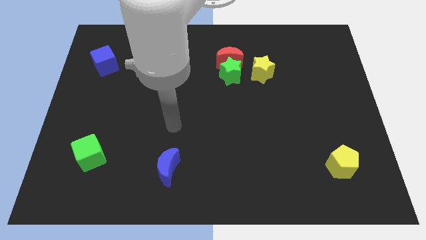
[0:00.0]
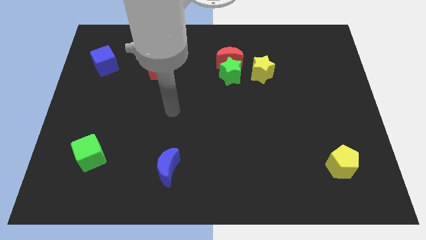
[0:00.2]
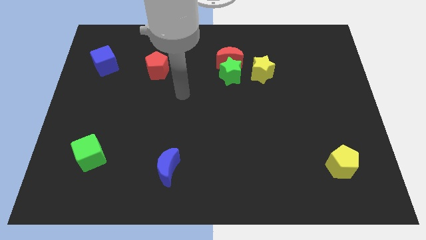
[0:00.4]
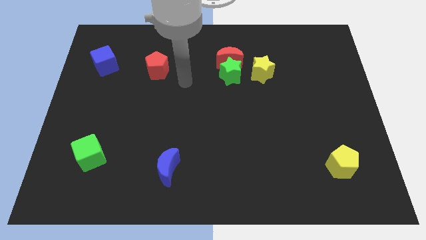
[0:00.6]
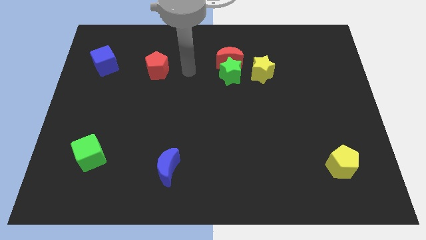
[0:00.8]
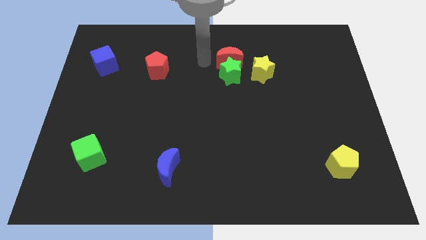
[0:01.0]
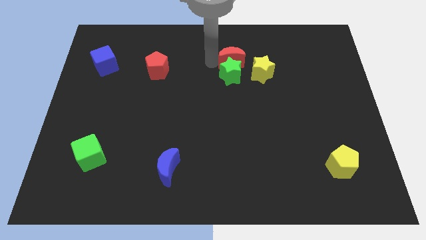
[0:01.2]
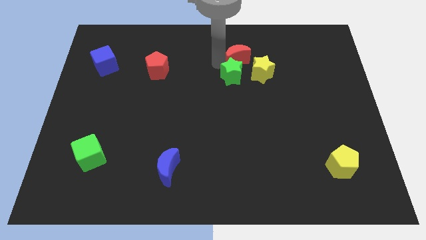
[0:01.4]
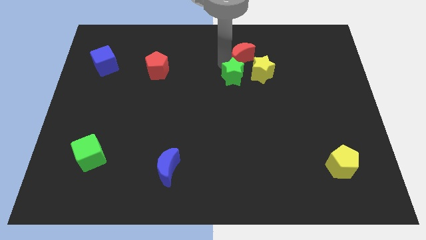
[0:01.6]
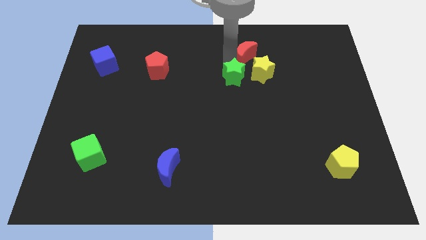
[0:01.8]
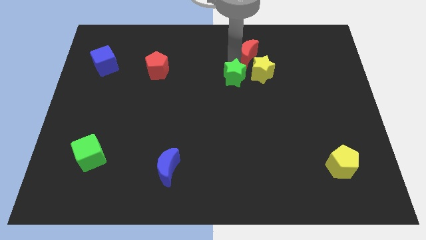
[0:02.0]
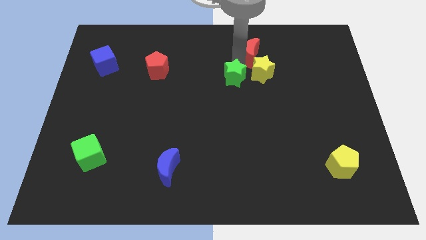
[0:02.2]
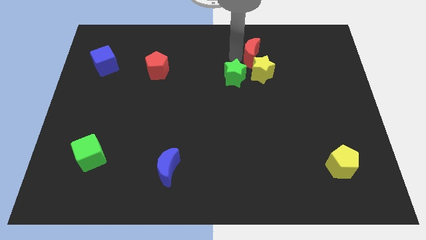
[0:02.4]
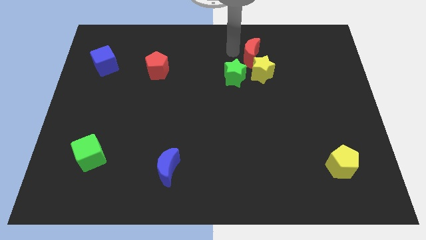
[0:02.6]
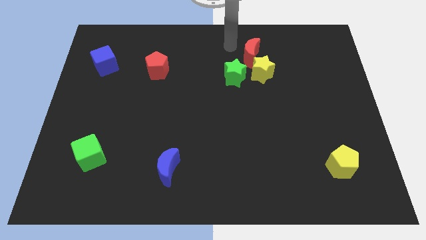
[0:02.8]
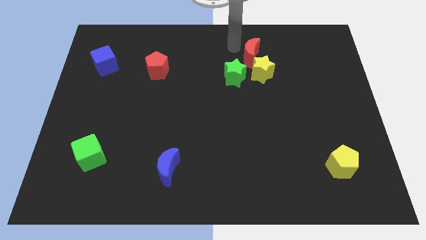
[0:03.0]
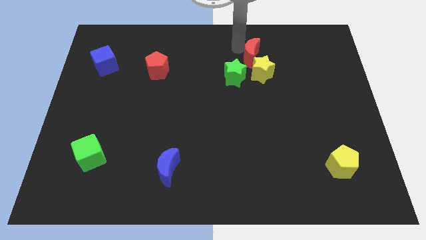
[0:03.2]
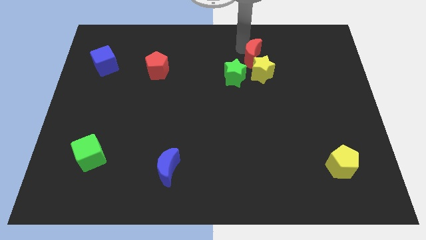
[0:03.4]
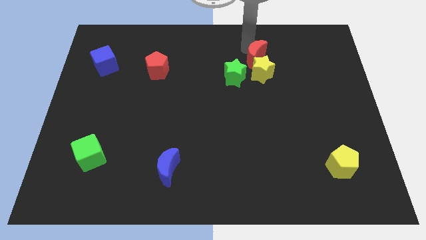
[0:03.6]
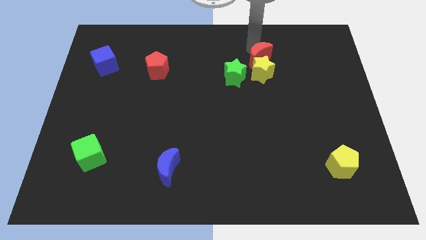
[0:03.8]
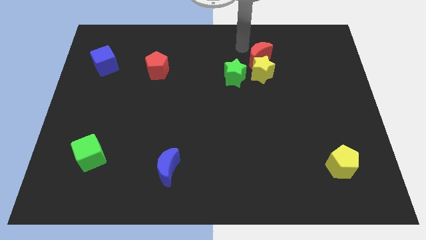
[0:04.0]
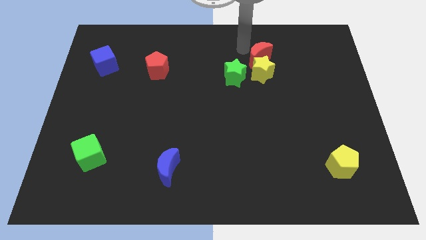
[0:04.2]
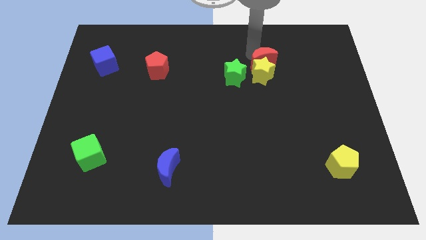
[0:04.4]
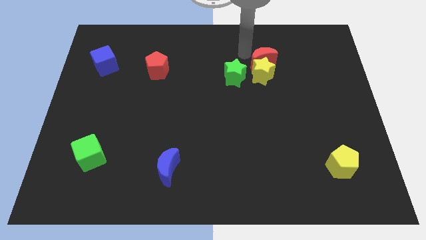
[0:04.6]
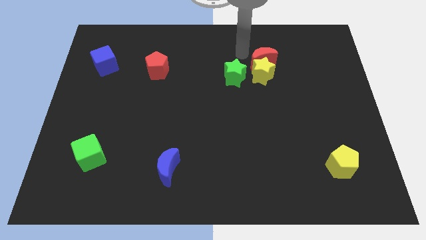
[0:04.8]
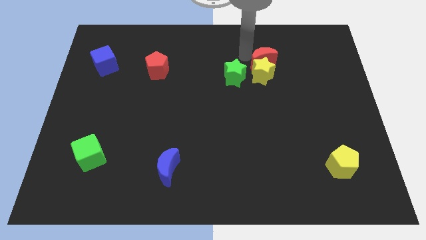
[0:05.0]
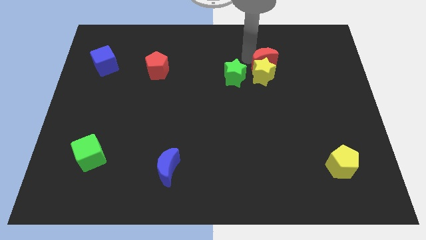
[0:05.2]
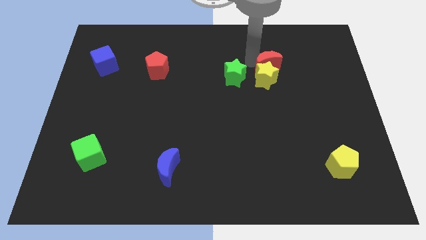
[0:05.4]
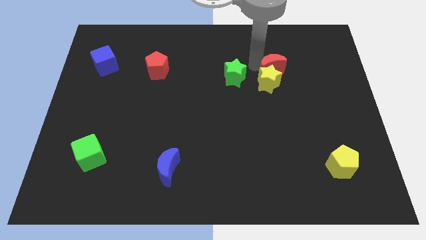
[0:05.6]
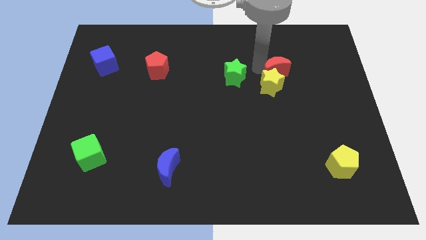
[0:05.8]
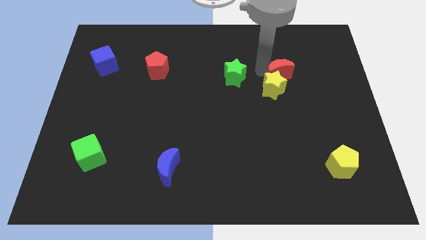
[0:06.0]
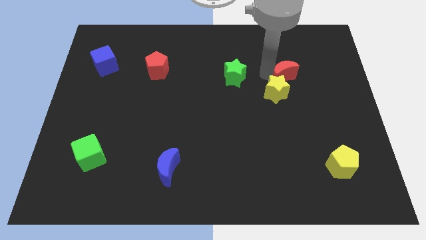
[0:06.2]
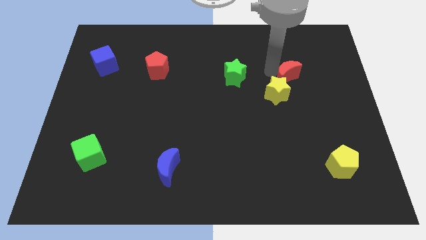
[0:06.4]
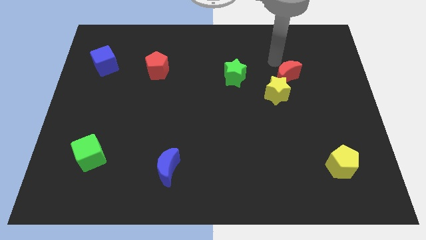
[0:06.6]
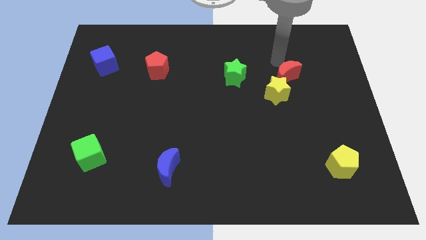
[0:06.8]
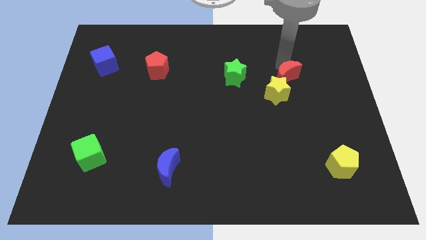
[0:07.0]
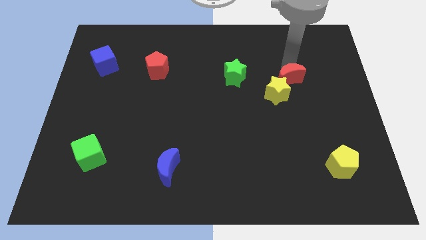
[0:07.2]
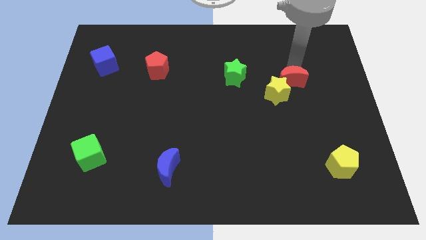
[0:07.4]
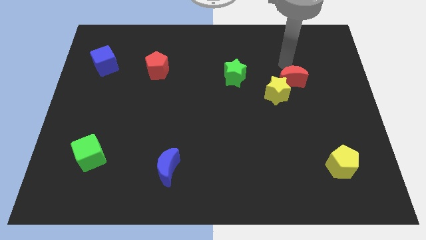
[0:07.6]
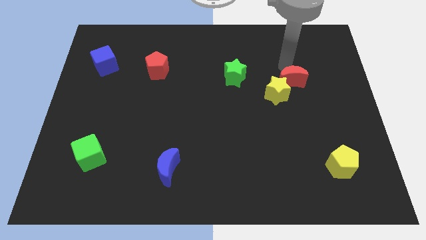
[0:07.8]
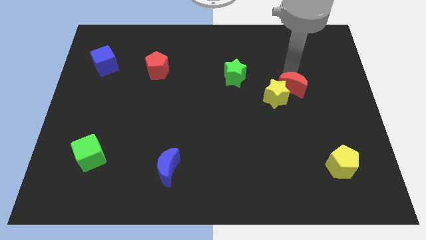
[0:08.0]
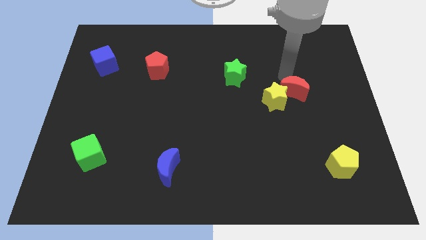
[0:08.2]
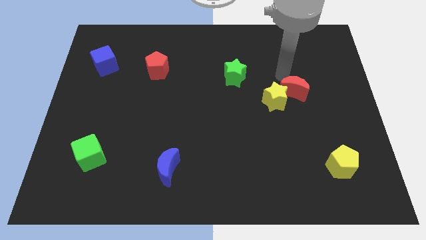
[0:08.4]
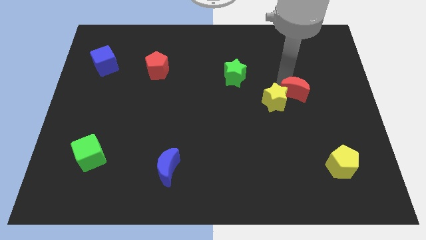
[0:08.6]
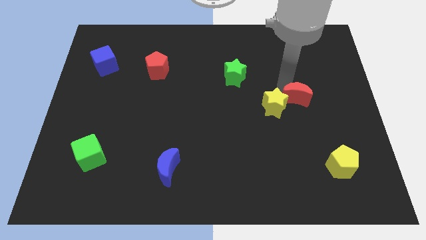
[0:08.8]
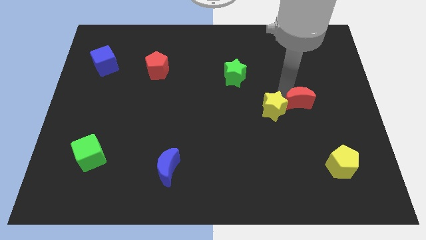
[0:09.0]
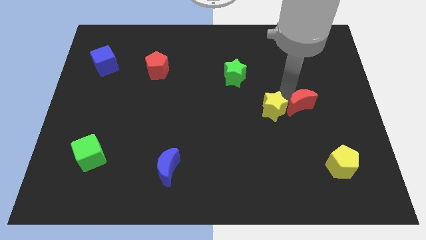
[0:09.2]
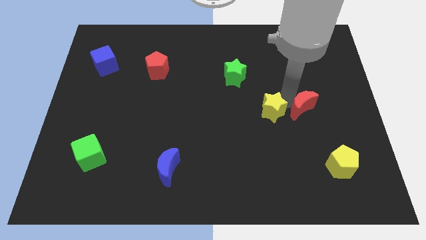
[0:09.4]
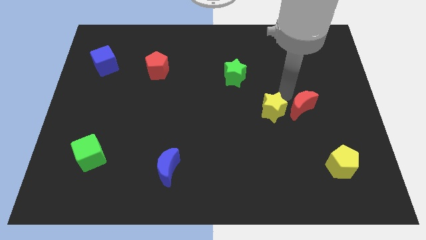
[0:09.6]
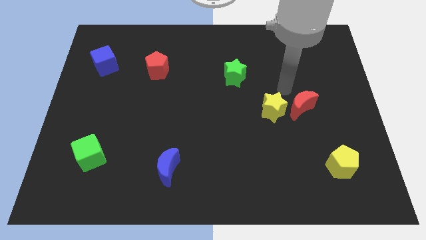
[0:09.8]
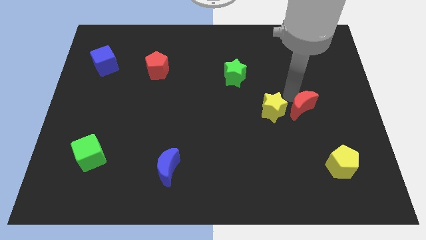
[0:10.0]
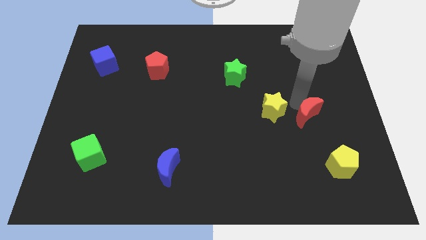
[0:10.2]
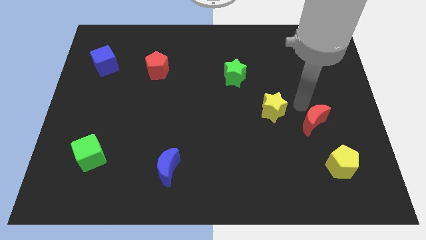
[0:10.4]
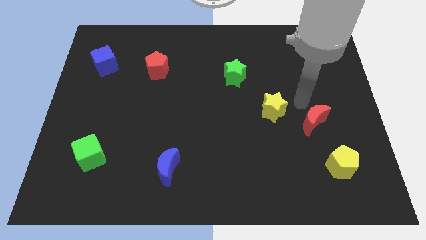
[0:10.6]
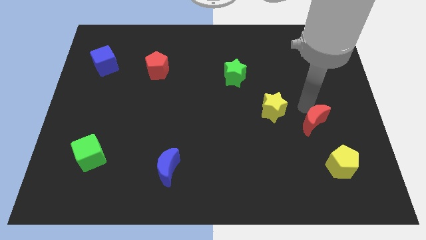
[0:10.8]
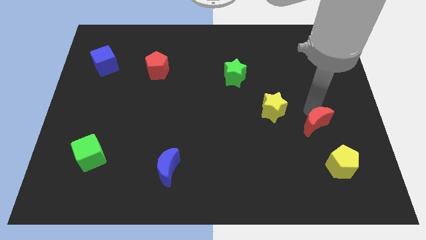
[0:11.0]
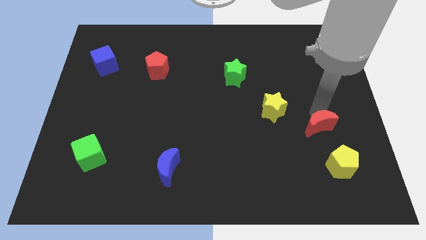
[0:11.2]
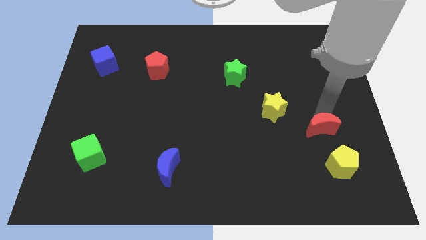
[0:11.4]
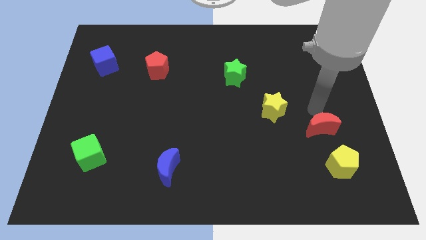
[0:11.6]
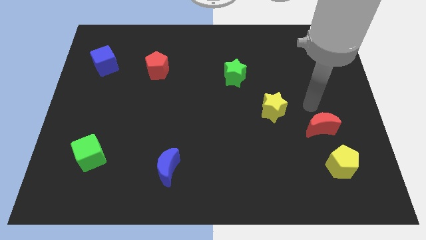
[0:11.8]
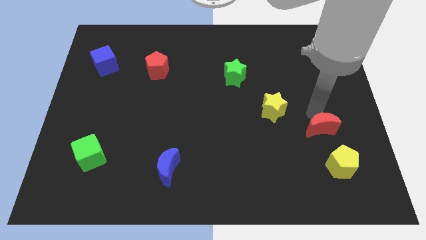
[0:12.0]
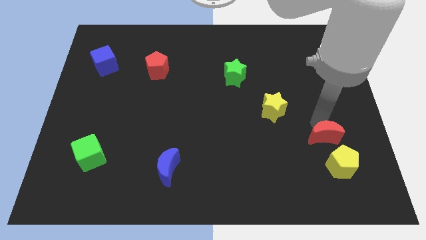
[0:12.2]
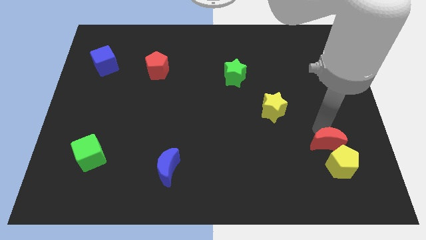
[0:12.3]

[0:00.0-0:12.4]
put the red moon towards the yellow pentagon

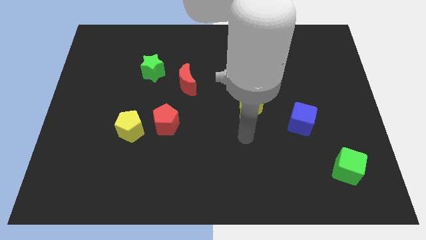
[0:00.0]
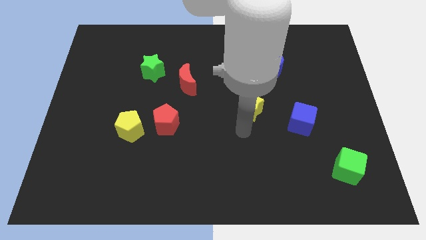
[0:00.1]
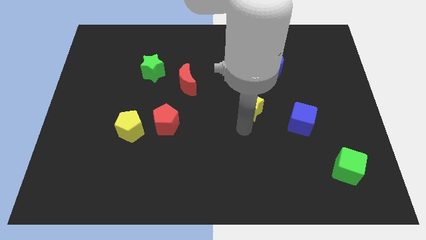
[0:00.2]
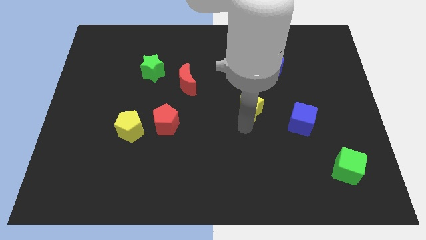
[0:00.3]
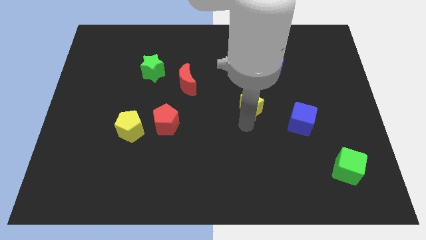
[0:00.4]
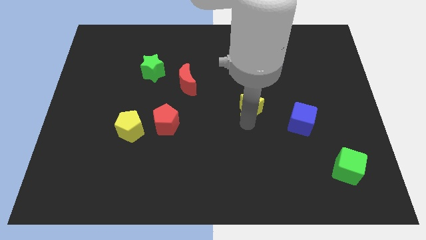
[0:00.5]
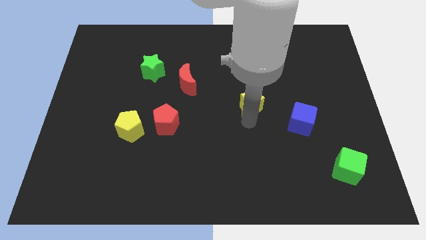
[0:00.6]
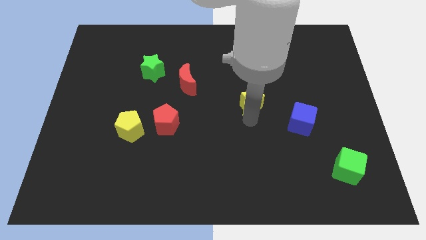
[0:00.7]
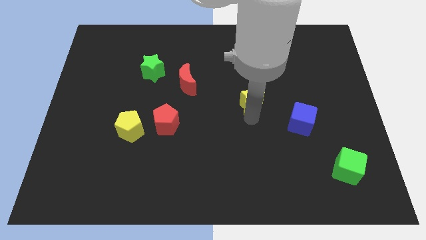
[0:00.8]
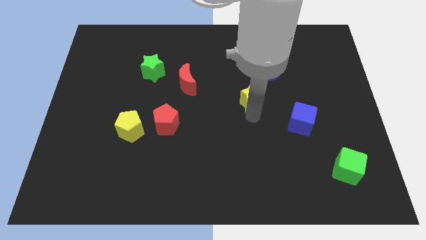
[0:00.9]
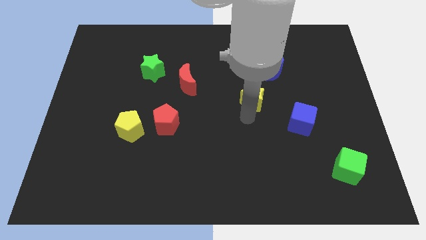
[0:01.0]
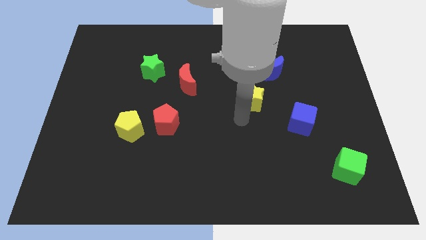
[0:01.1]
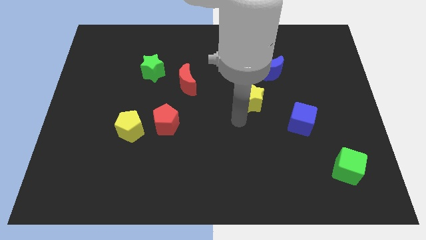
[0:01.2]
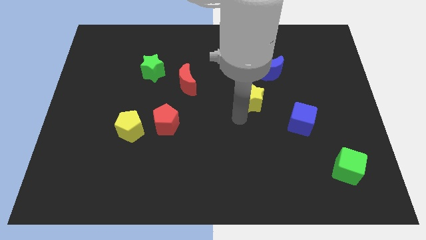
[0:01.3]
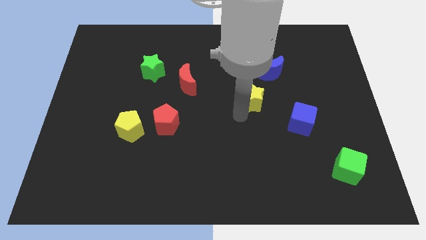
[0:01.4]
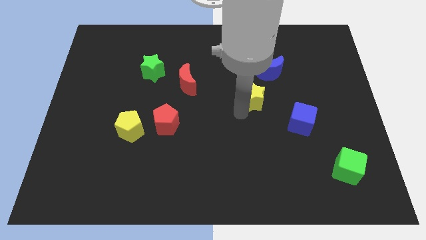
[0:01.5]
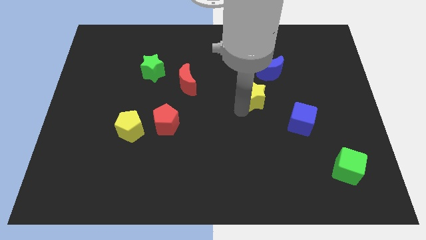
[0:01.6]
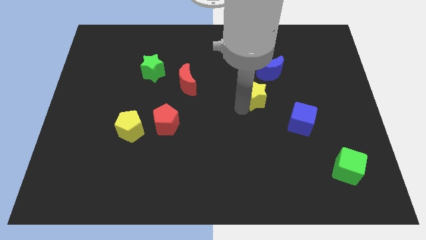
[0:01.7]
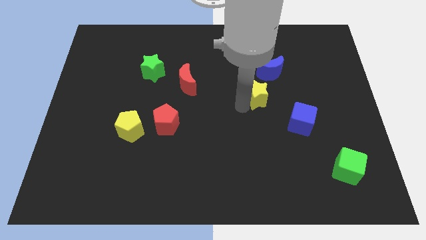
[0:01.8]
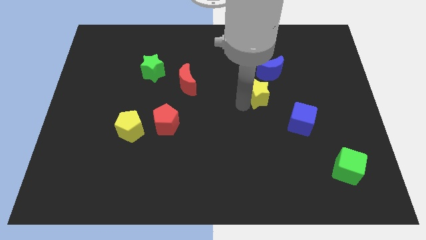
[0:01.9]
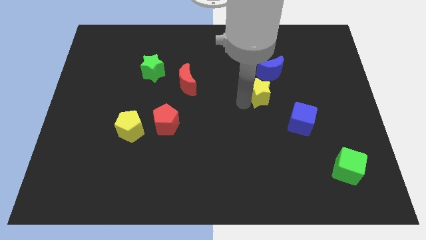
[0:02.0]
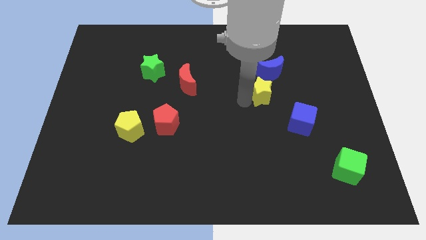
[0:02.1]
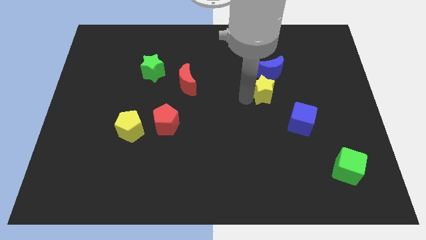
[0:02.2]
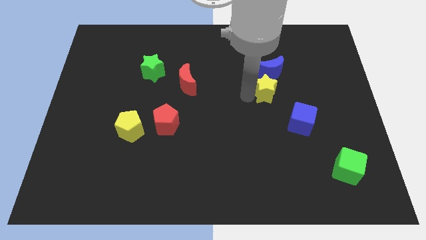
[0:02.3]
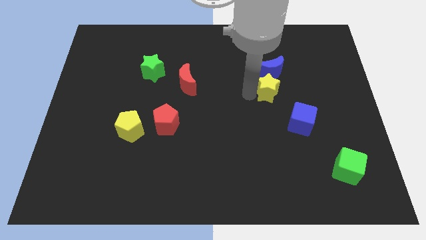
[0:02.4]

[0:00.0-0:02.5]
move the yellow star to the blue moon
